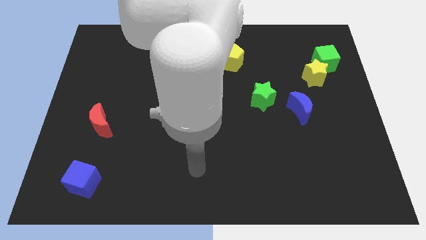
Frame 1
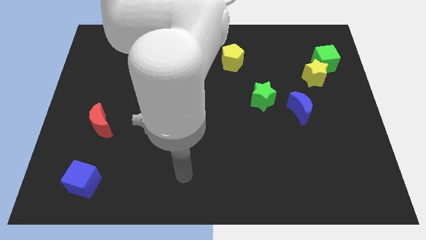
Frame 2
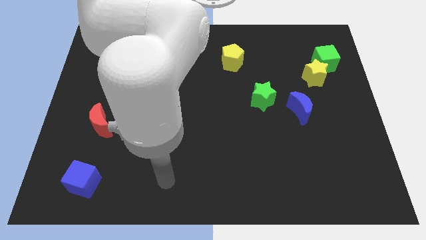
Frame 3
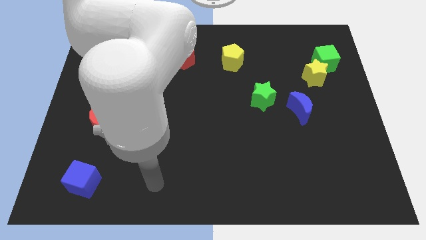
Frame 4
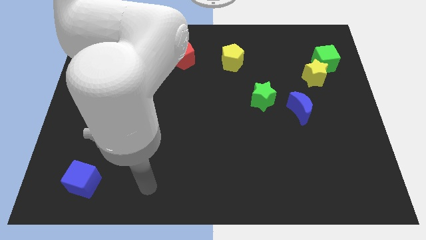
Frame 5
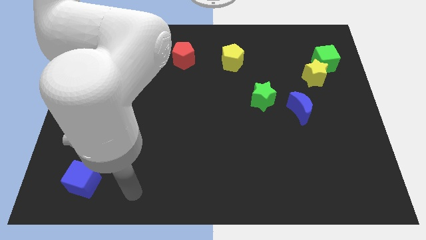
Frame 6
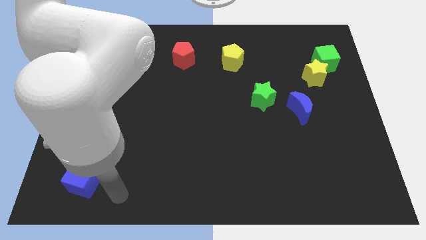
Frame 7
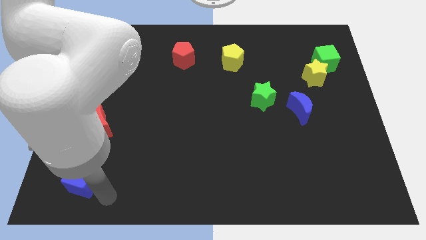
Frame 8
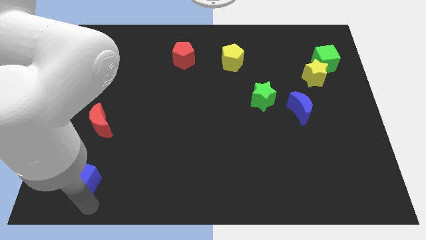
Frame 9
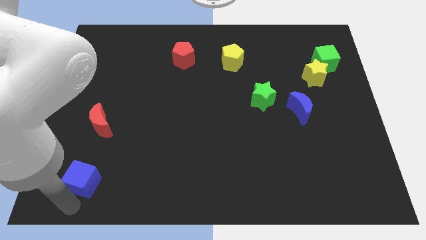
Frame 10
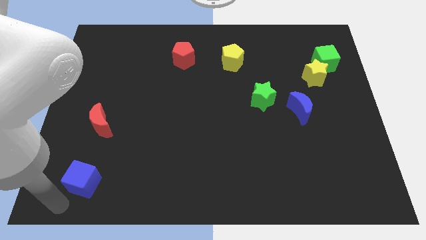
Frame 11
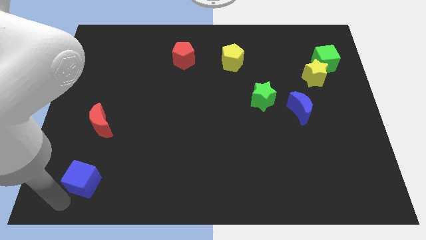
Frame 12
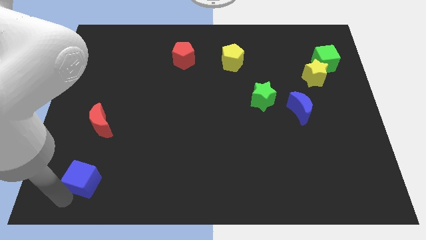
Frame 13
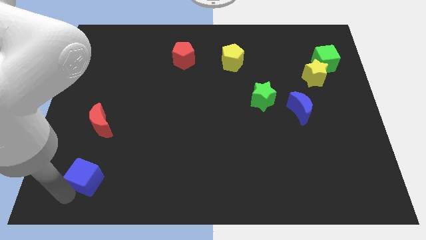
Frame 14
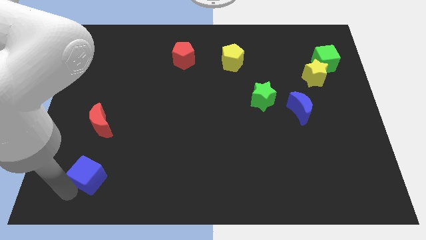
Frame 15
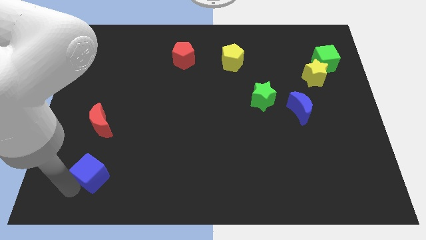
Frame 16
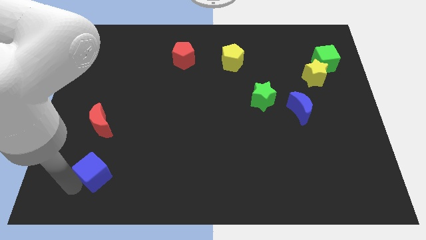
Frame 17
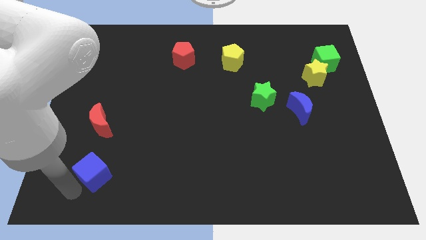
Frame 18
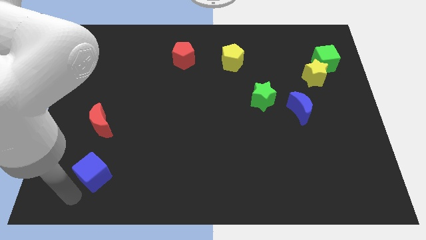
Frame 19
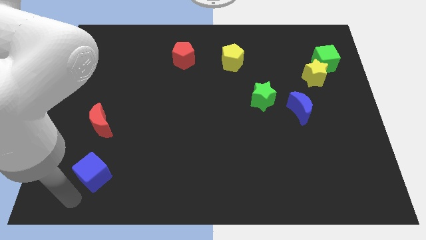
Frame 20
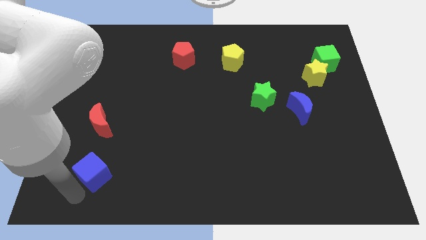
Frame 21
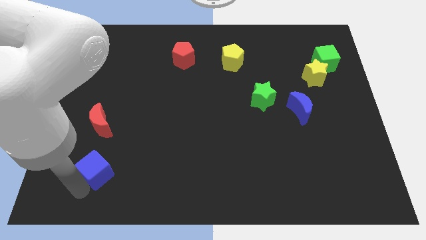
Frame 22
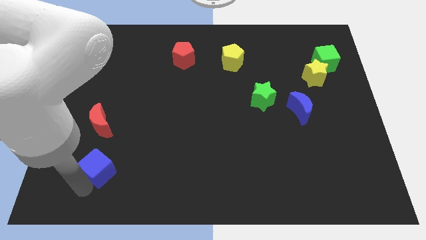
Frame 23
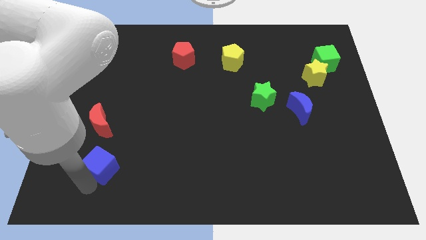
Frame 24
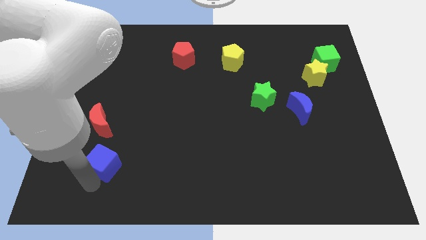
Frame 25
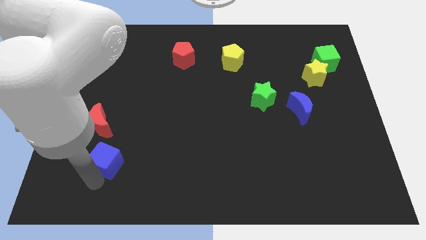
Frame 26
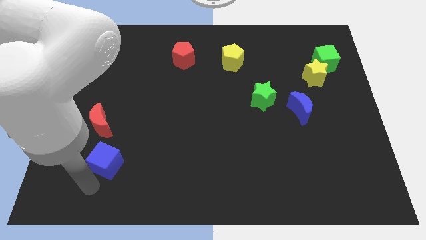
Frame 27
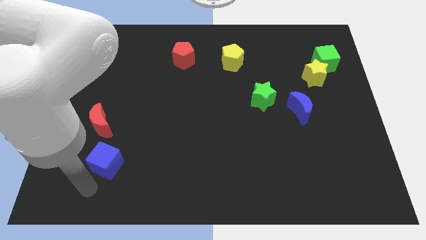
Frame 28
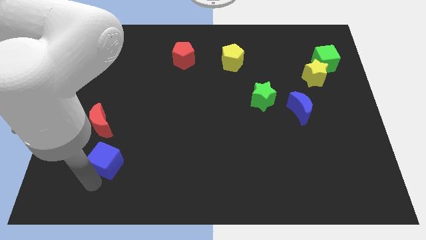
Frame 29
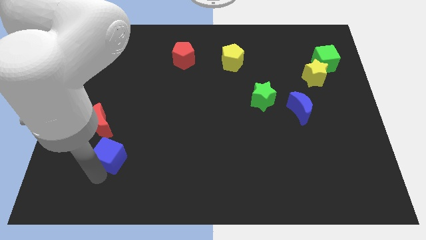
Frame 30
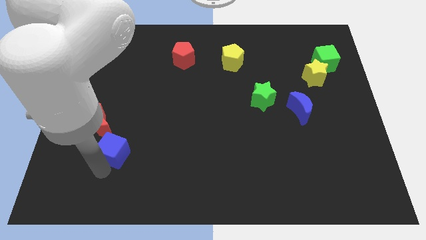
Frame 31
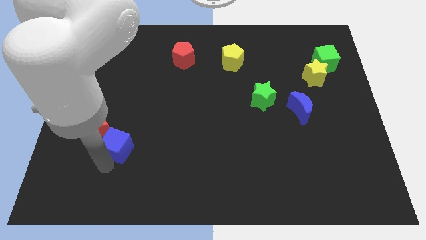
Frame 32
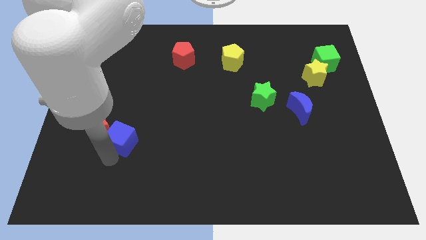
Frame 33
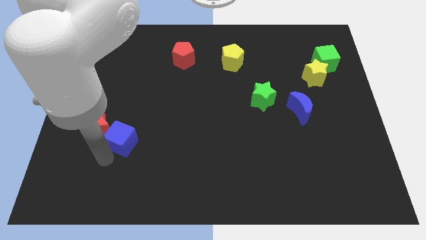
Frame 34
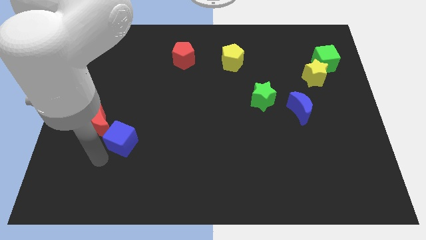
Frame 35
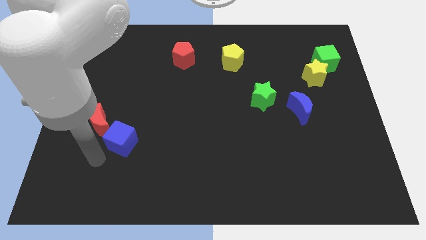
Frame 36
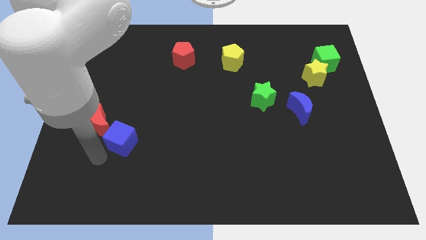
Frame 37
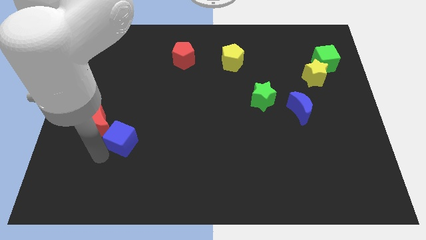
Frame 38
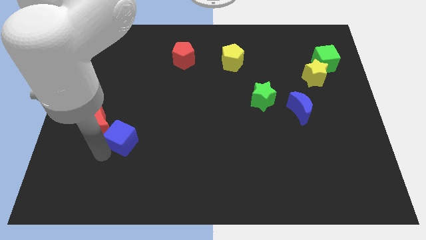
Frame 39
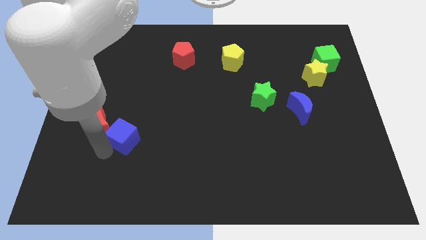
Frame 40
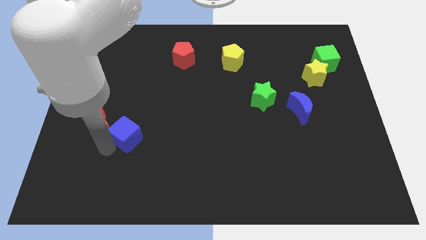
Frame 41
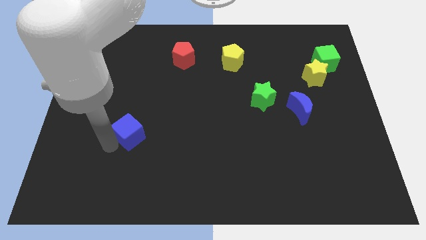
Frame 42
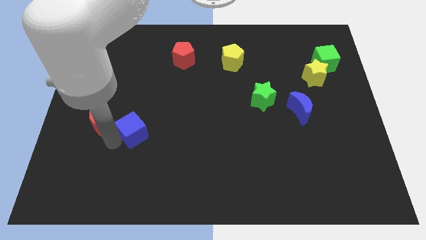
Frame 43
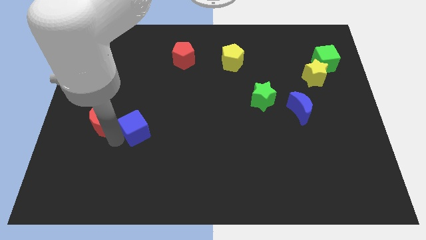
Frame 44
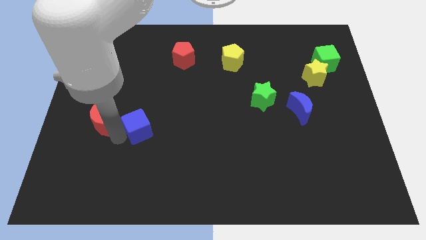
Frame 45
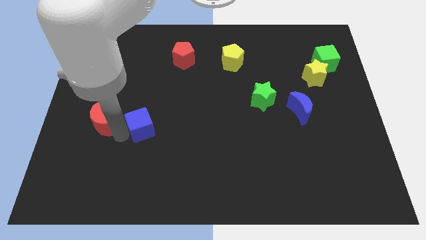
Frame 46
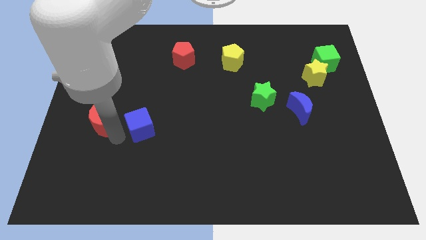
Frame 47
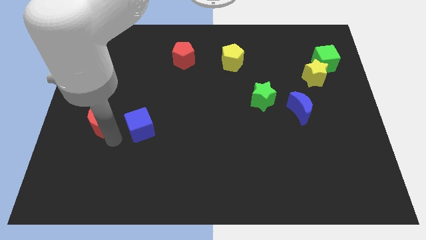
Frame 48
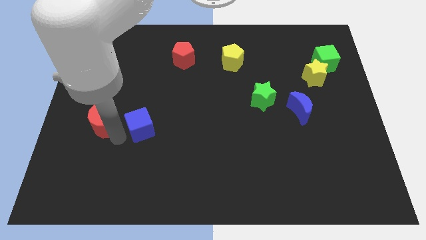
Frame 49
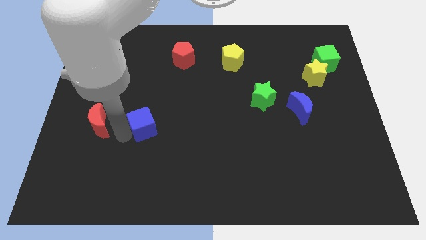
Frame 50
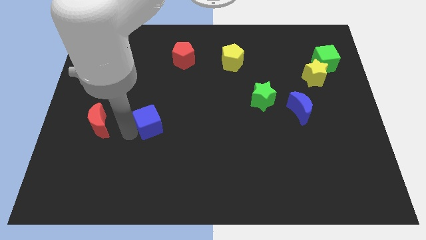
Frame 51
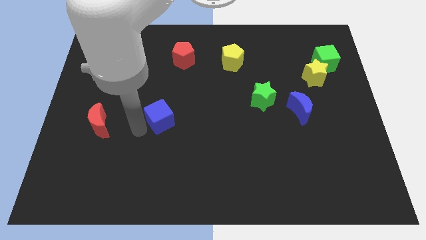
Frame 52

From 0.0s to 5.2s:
push the blue cube diagonally upwards and right

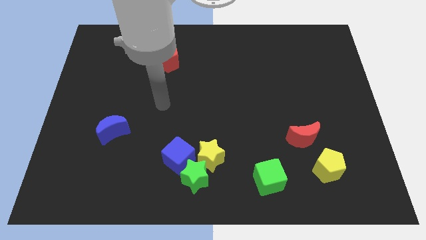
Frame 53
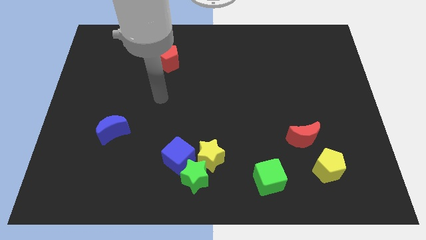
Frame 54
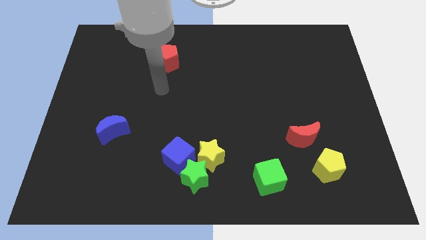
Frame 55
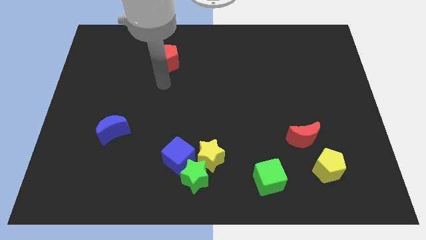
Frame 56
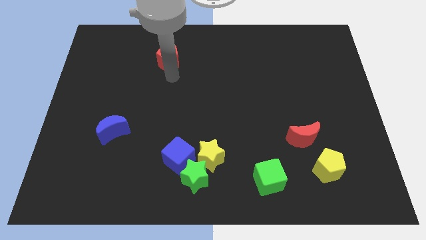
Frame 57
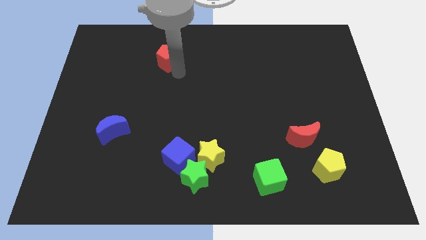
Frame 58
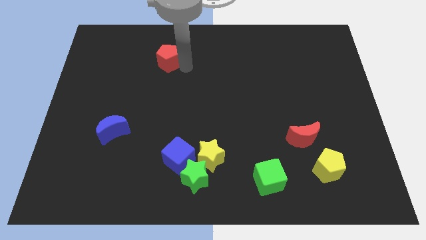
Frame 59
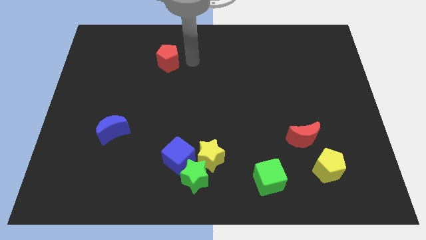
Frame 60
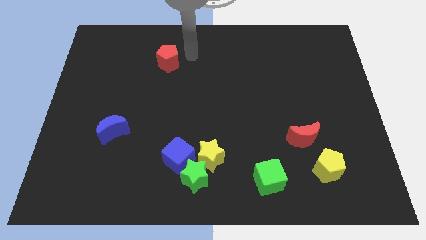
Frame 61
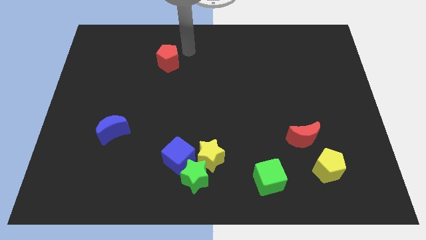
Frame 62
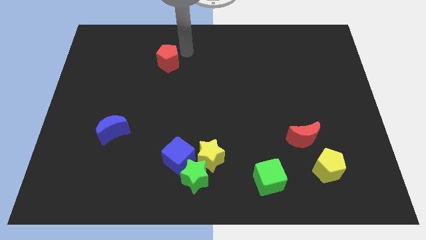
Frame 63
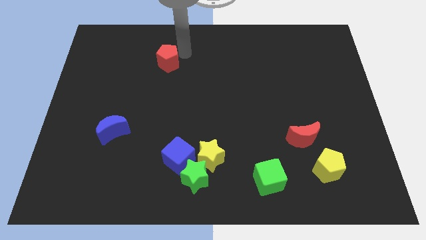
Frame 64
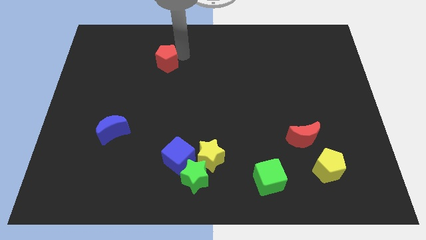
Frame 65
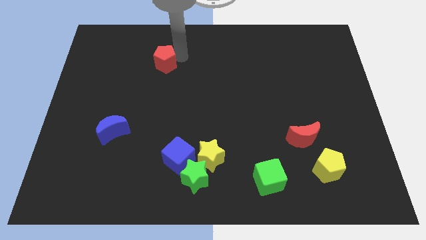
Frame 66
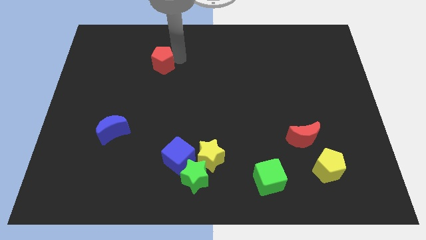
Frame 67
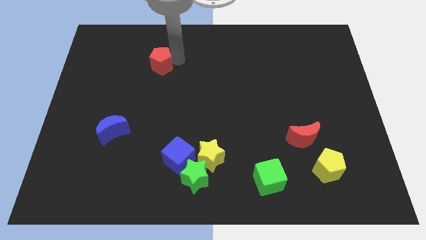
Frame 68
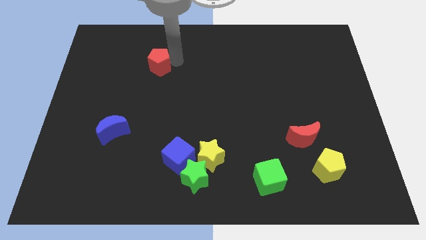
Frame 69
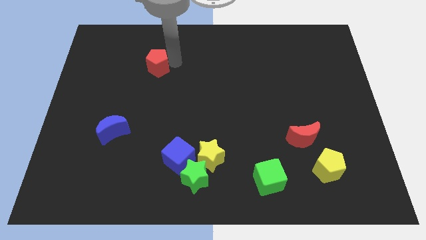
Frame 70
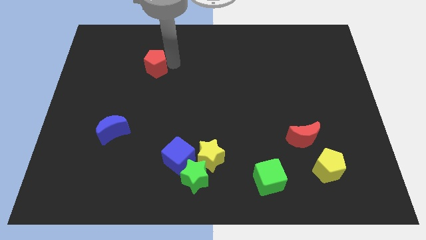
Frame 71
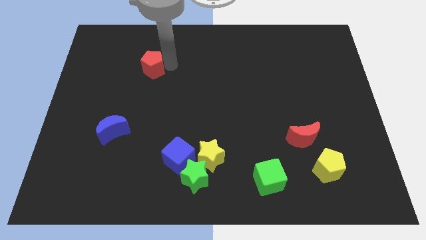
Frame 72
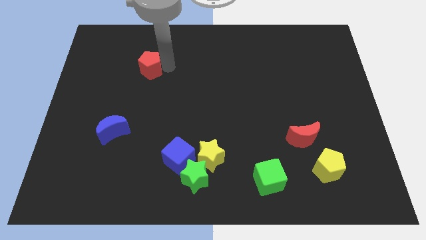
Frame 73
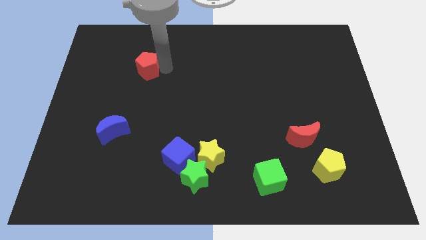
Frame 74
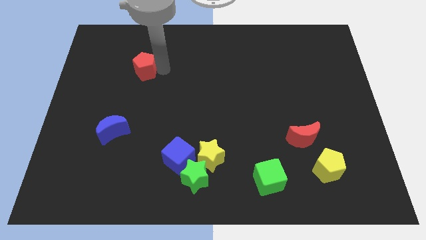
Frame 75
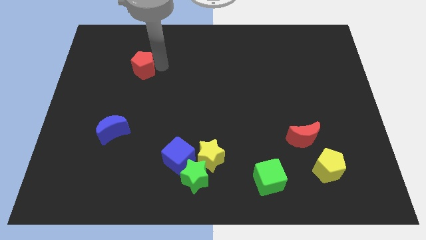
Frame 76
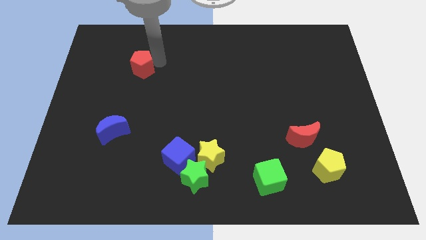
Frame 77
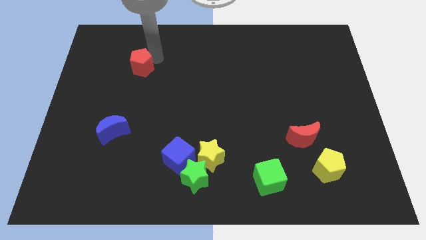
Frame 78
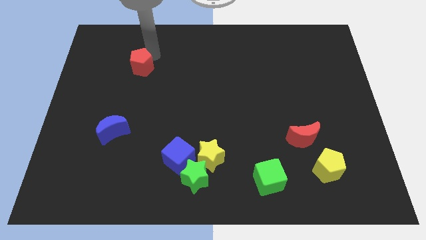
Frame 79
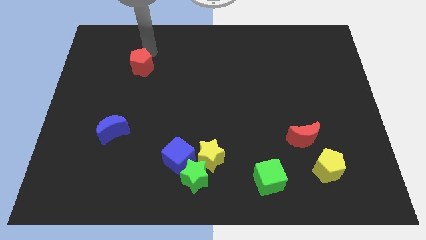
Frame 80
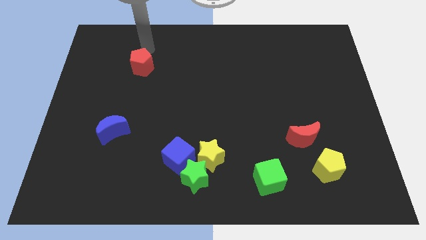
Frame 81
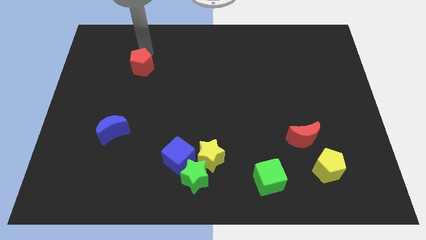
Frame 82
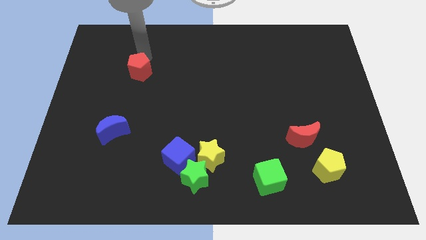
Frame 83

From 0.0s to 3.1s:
slightly slide the red pentagon downwards and then to the left
